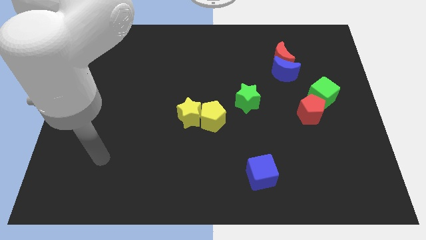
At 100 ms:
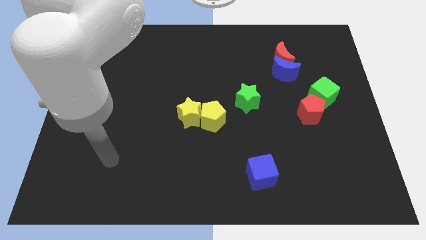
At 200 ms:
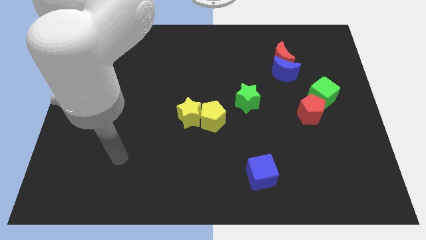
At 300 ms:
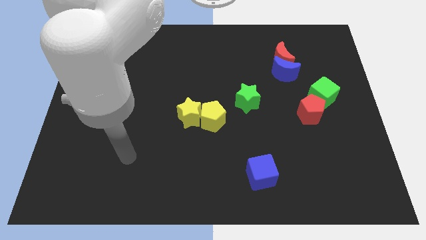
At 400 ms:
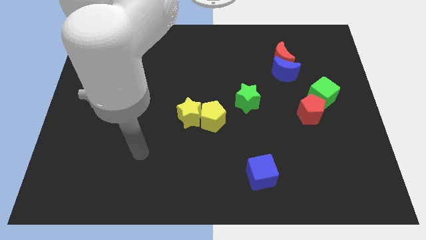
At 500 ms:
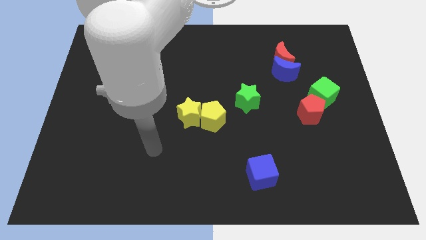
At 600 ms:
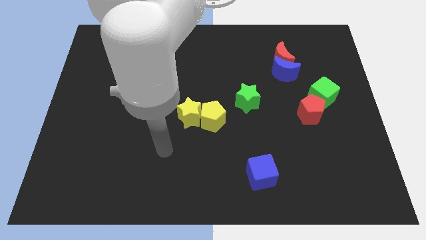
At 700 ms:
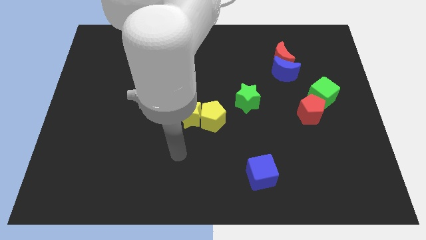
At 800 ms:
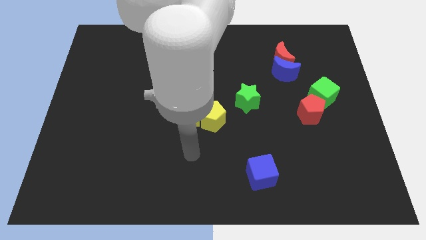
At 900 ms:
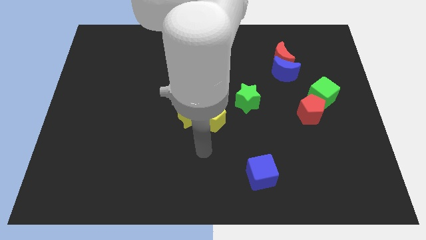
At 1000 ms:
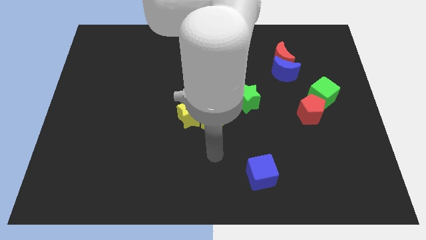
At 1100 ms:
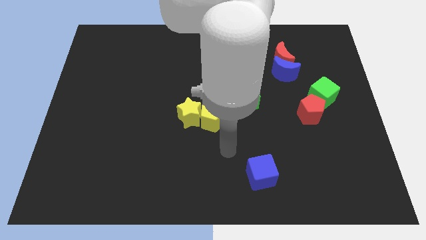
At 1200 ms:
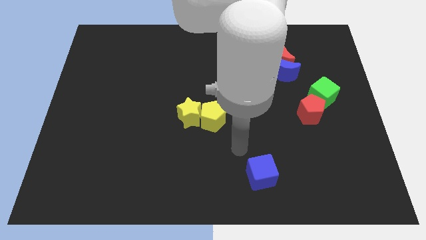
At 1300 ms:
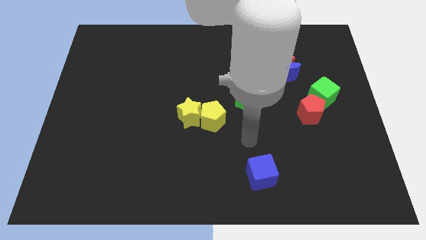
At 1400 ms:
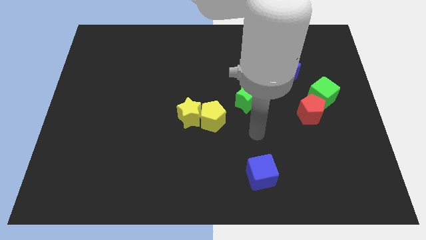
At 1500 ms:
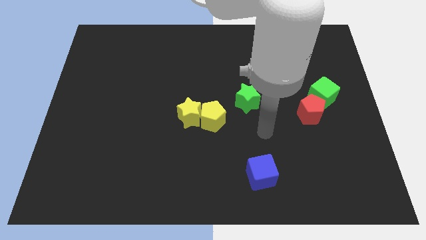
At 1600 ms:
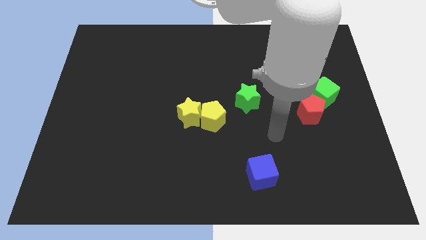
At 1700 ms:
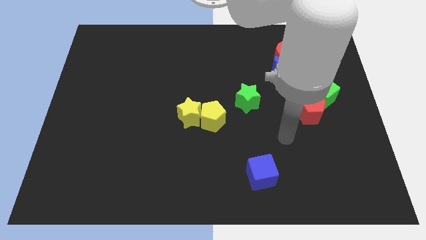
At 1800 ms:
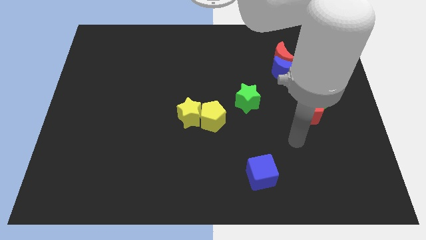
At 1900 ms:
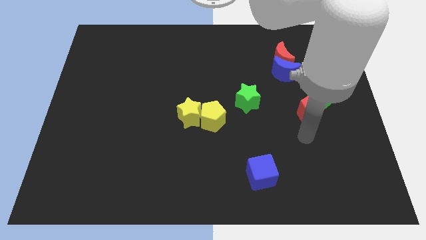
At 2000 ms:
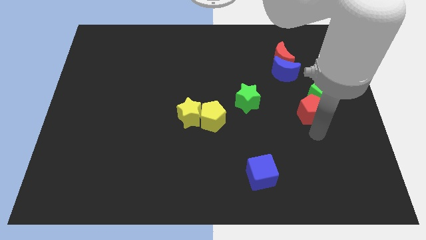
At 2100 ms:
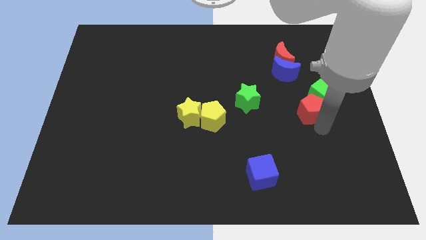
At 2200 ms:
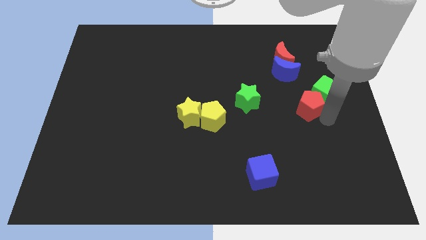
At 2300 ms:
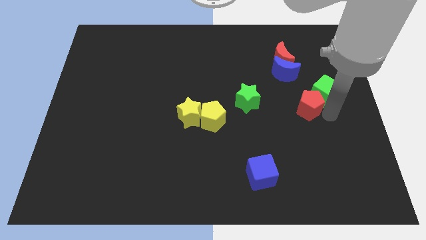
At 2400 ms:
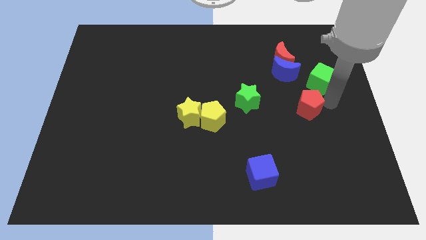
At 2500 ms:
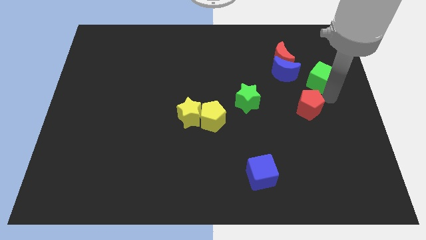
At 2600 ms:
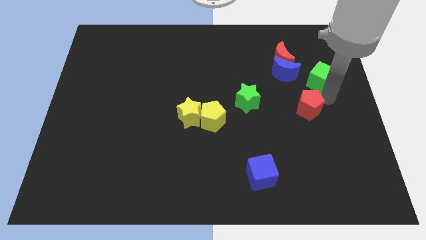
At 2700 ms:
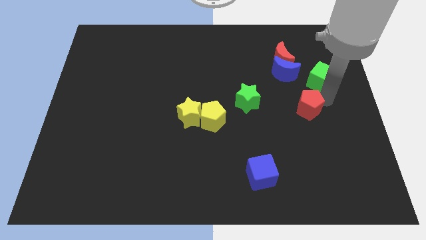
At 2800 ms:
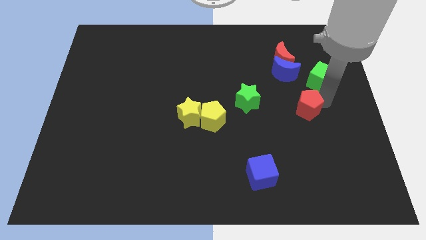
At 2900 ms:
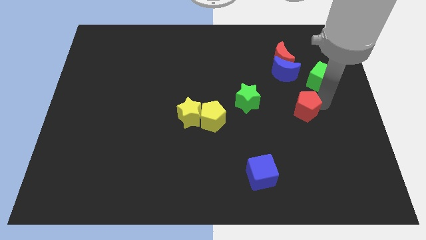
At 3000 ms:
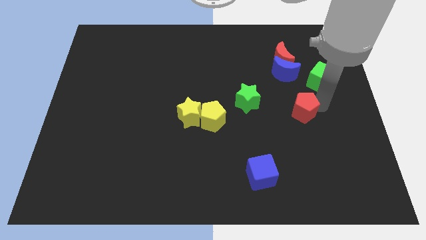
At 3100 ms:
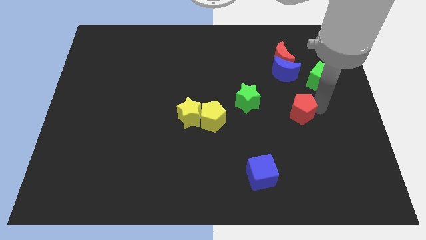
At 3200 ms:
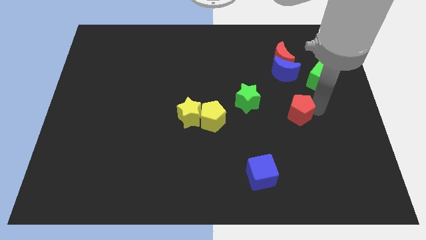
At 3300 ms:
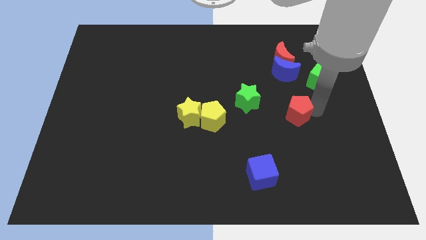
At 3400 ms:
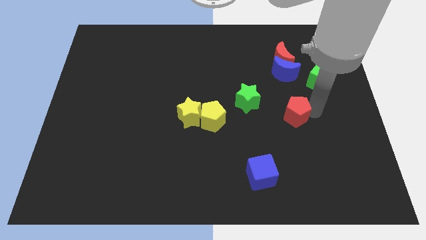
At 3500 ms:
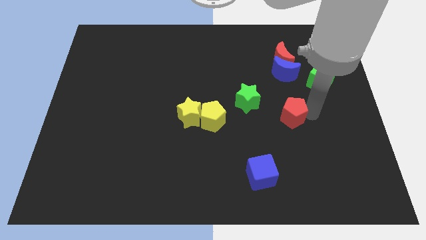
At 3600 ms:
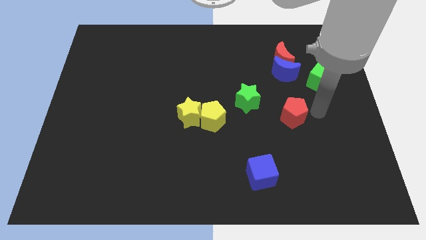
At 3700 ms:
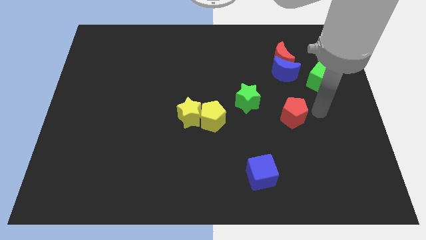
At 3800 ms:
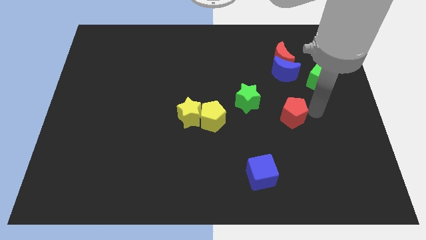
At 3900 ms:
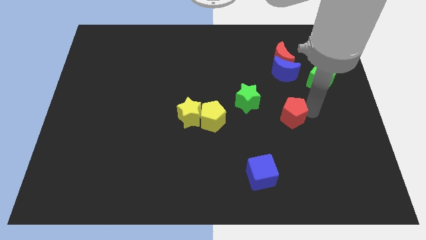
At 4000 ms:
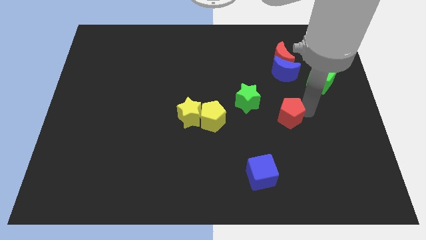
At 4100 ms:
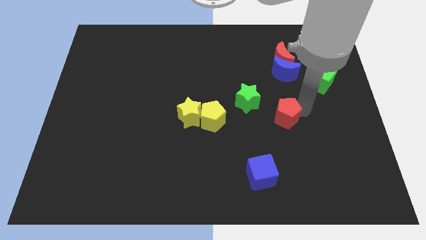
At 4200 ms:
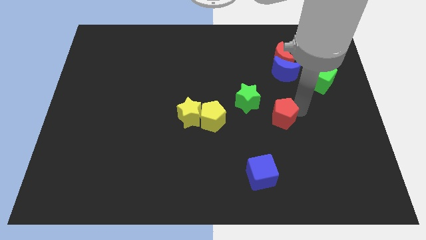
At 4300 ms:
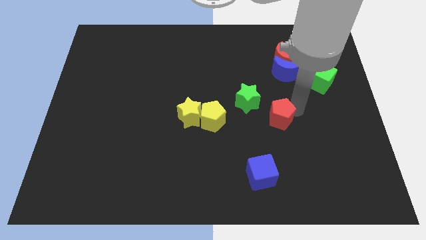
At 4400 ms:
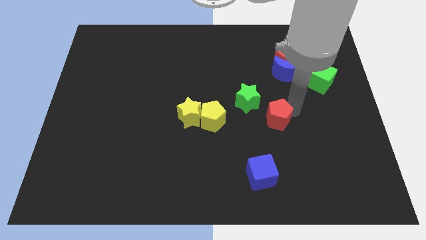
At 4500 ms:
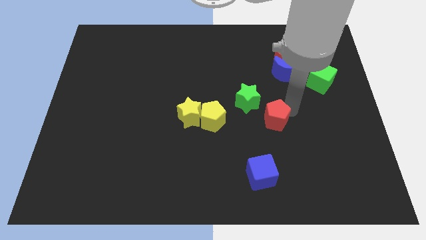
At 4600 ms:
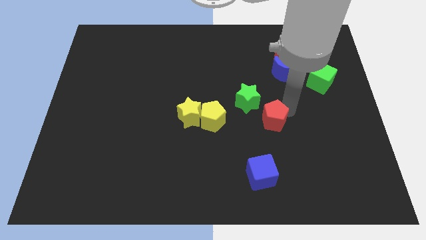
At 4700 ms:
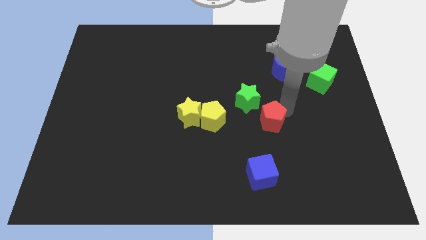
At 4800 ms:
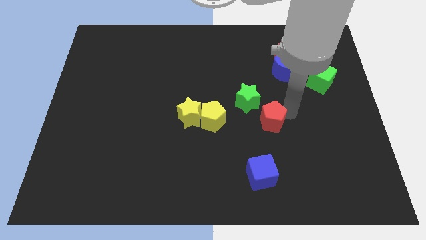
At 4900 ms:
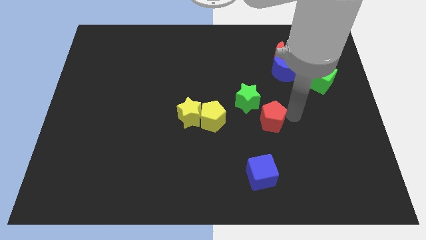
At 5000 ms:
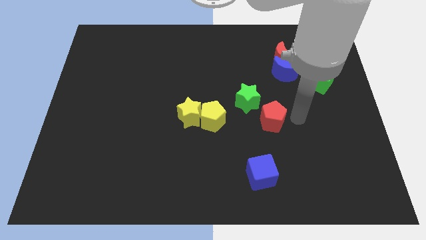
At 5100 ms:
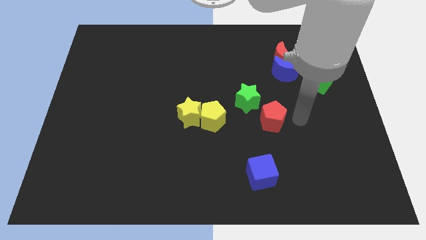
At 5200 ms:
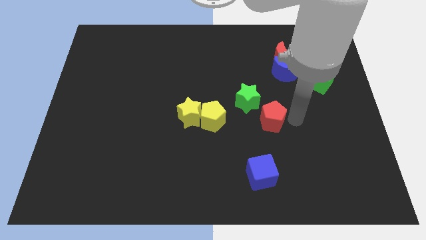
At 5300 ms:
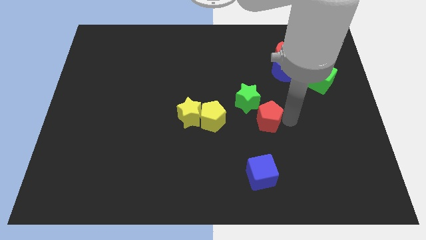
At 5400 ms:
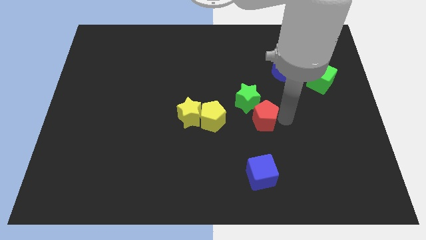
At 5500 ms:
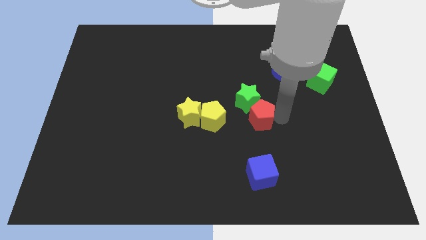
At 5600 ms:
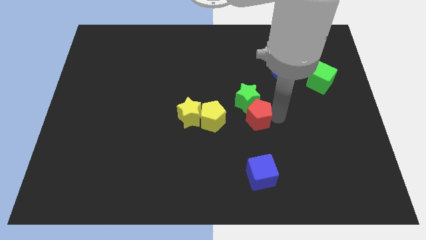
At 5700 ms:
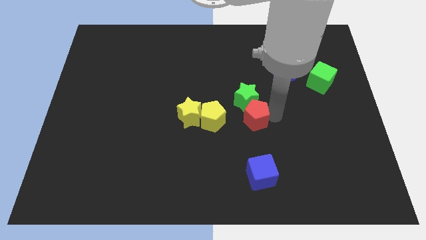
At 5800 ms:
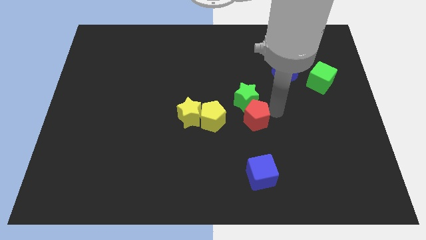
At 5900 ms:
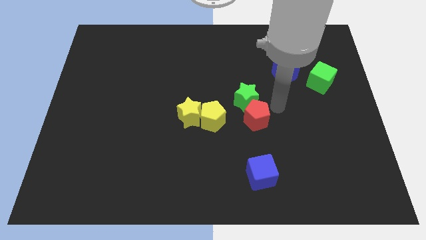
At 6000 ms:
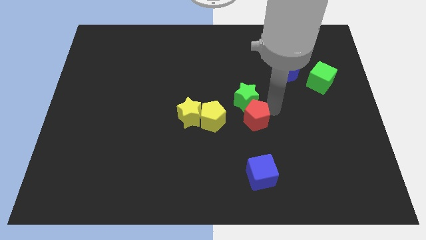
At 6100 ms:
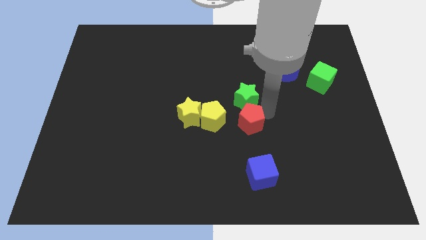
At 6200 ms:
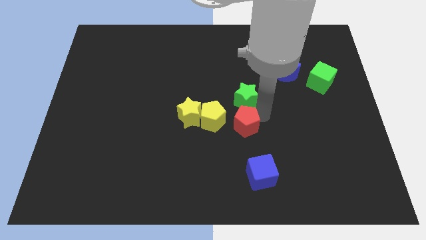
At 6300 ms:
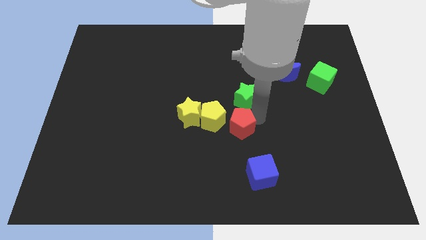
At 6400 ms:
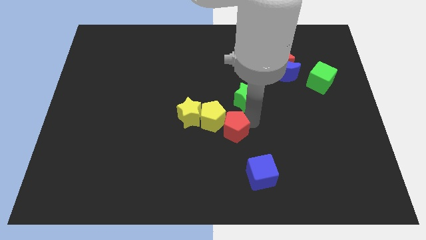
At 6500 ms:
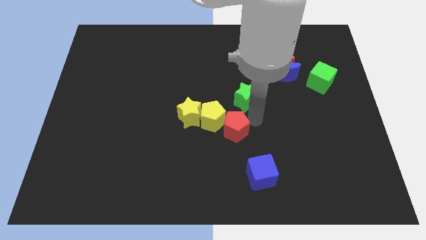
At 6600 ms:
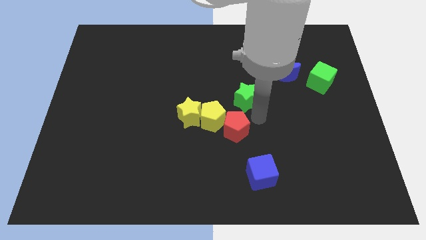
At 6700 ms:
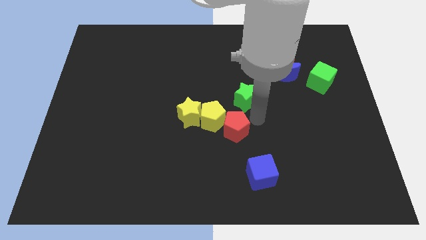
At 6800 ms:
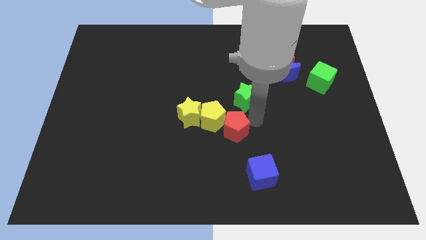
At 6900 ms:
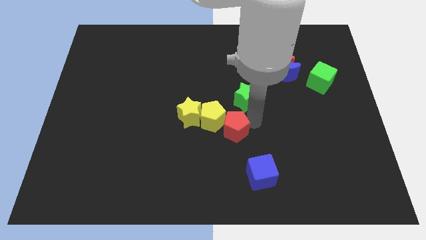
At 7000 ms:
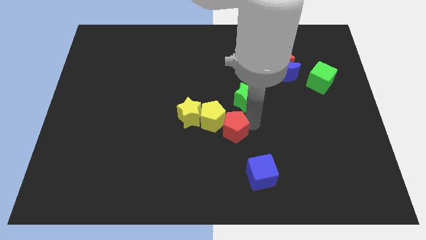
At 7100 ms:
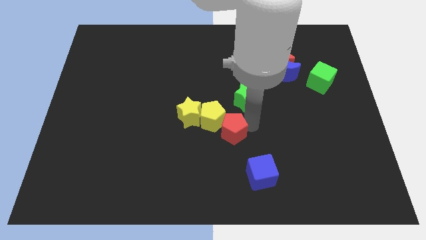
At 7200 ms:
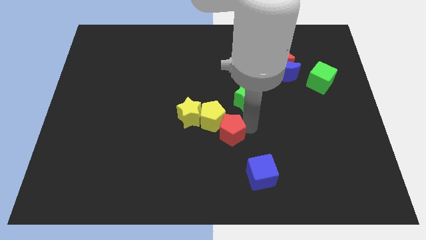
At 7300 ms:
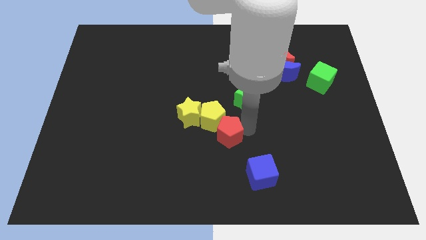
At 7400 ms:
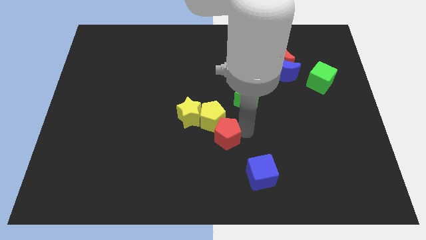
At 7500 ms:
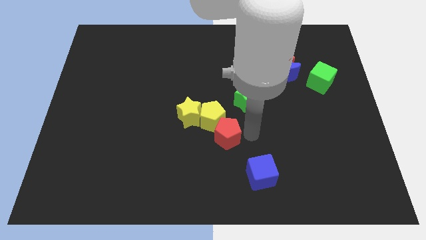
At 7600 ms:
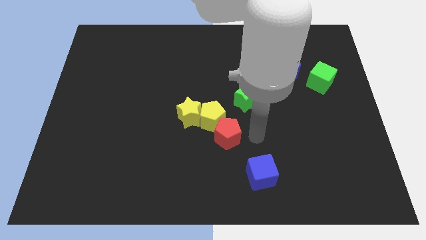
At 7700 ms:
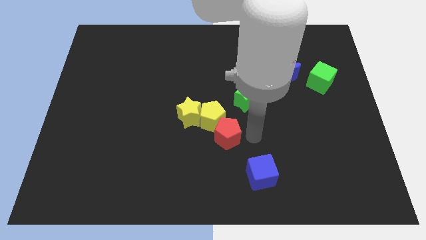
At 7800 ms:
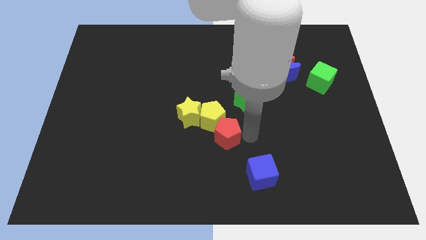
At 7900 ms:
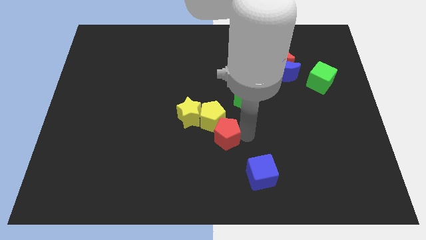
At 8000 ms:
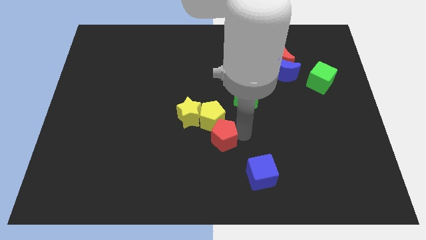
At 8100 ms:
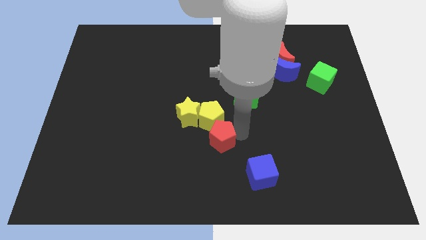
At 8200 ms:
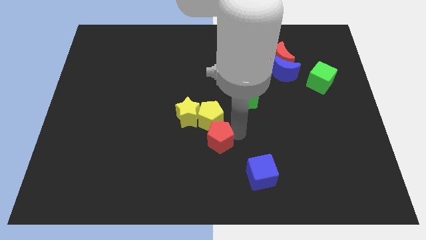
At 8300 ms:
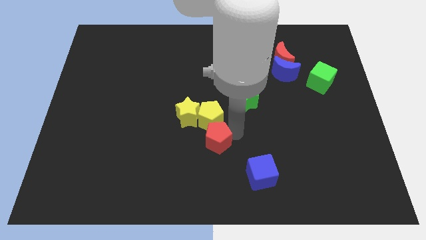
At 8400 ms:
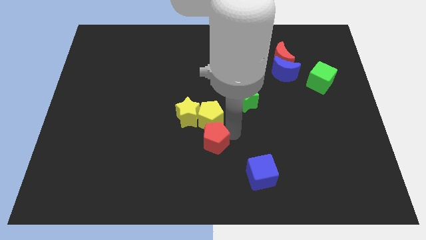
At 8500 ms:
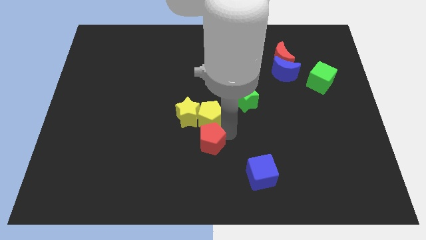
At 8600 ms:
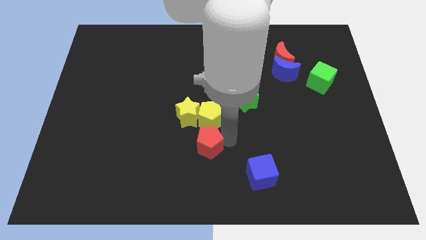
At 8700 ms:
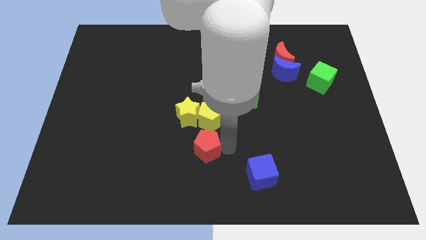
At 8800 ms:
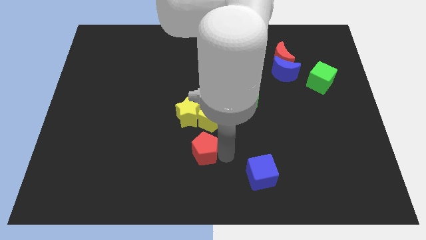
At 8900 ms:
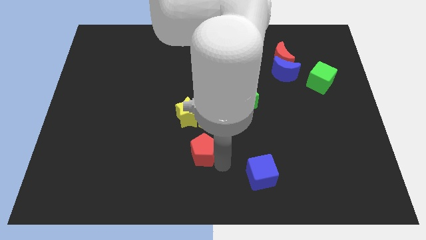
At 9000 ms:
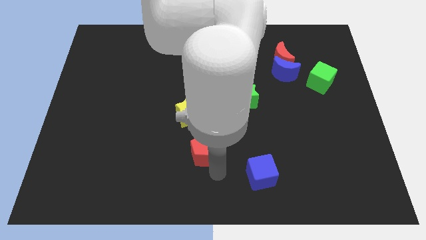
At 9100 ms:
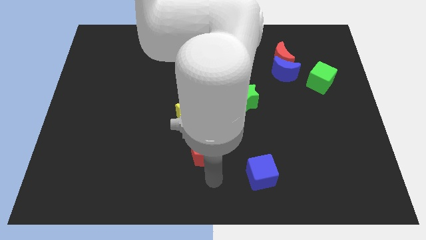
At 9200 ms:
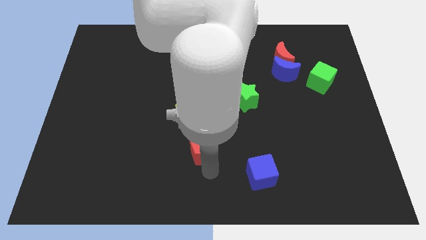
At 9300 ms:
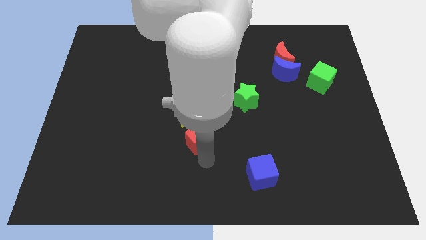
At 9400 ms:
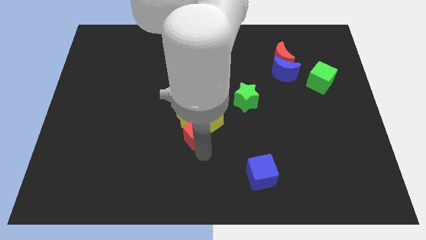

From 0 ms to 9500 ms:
put the red pentagon next to the yellow star
